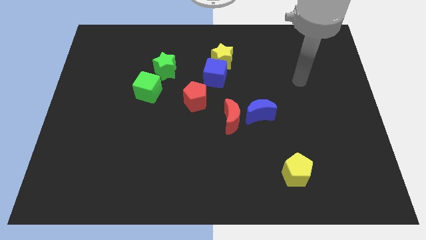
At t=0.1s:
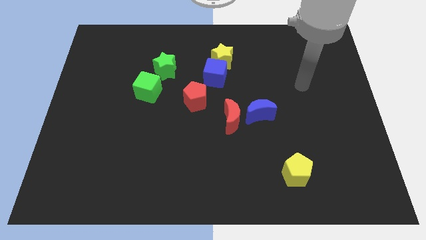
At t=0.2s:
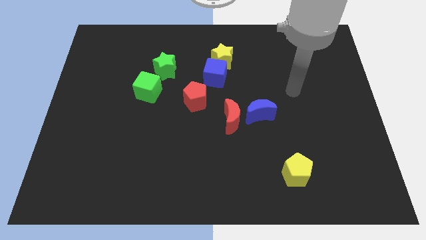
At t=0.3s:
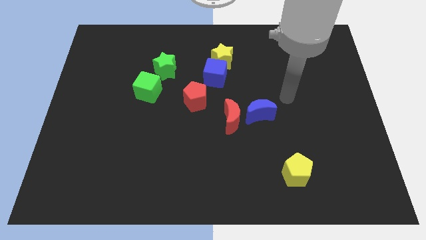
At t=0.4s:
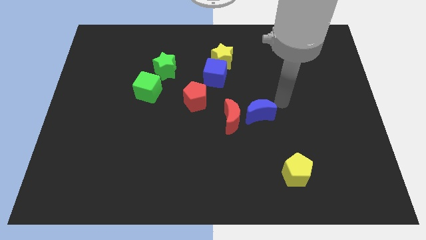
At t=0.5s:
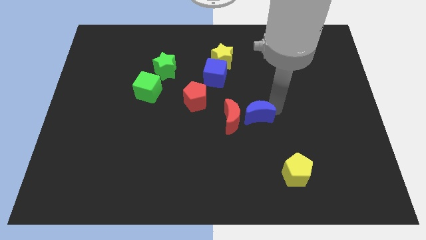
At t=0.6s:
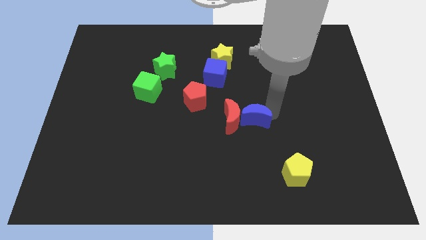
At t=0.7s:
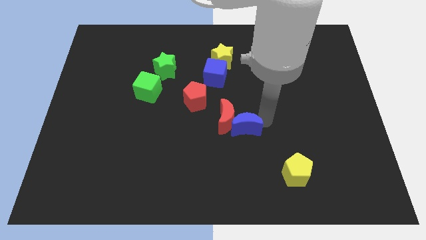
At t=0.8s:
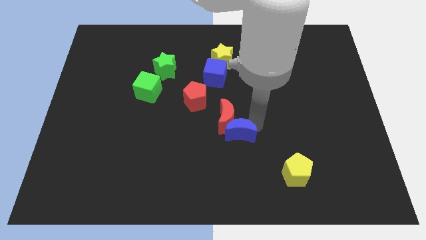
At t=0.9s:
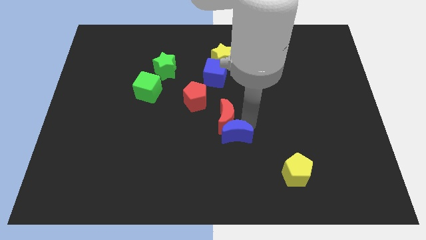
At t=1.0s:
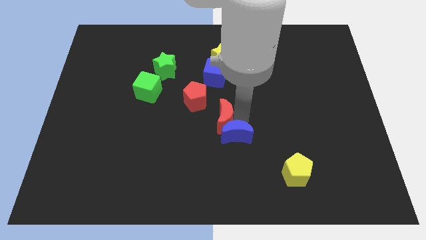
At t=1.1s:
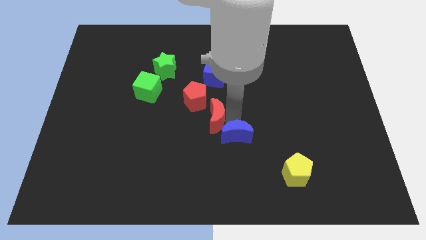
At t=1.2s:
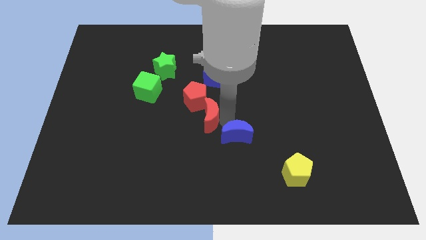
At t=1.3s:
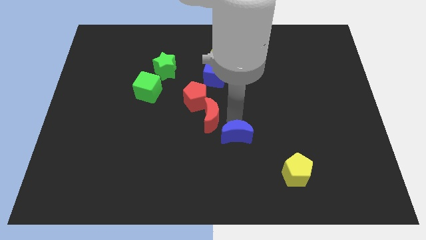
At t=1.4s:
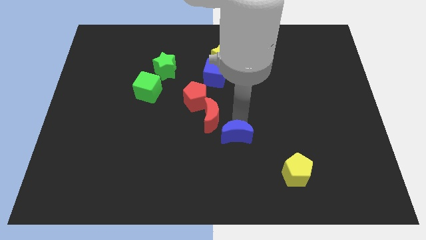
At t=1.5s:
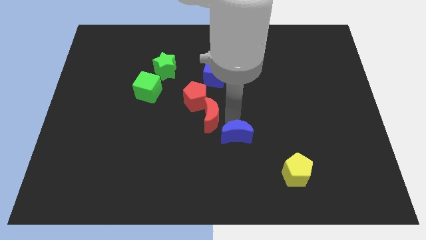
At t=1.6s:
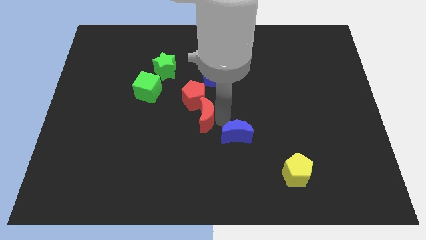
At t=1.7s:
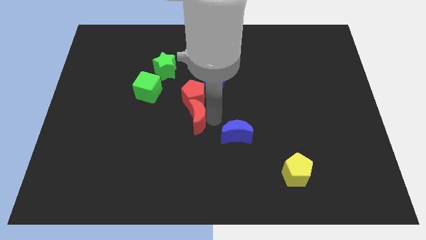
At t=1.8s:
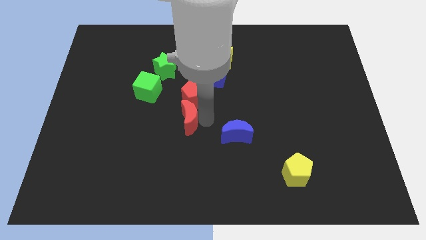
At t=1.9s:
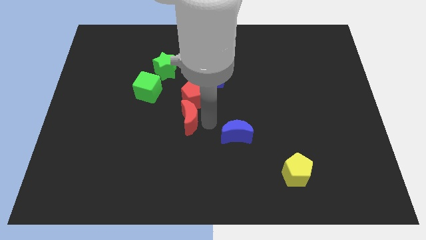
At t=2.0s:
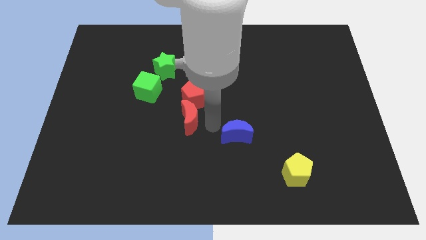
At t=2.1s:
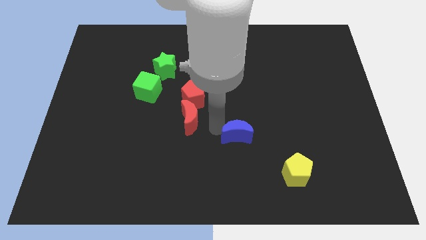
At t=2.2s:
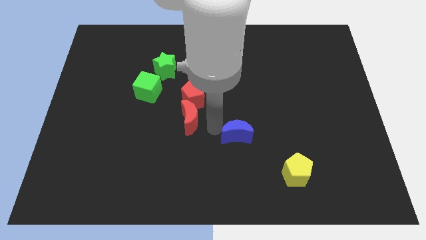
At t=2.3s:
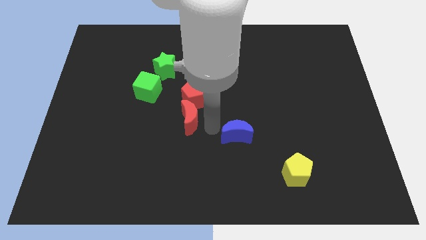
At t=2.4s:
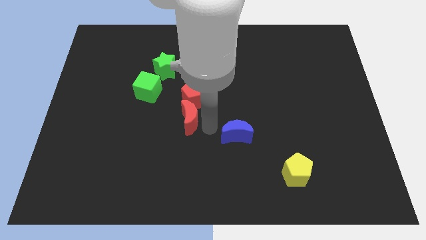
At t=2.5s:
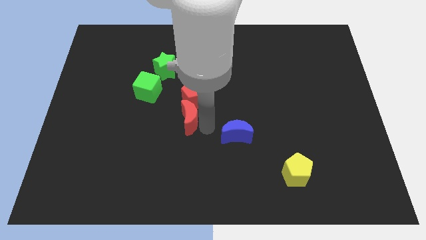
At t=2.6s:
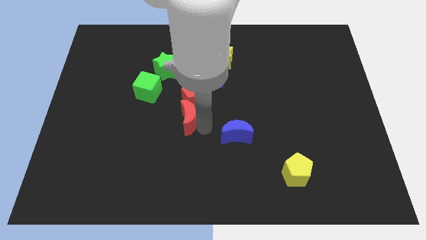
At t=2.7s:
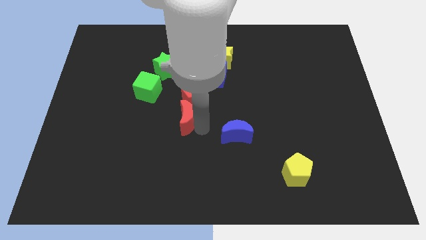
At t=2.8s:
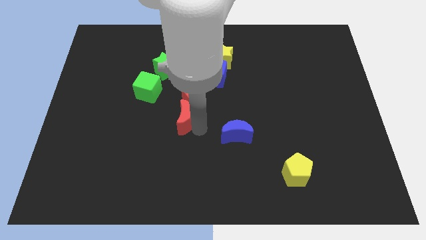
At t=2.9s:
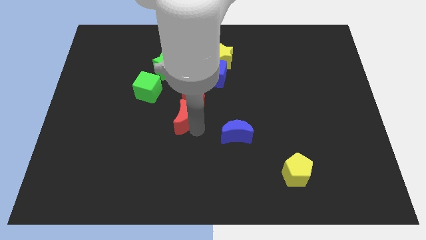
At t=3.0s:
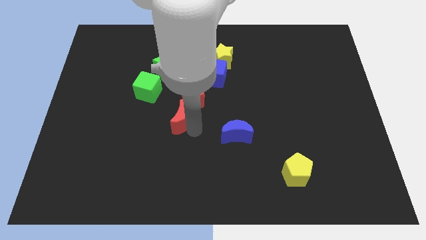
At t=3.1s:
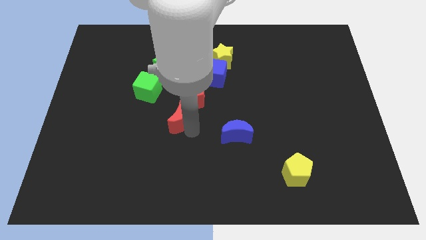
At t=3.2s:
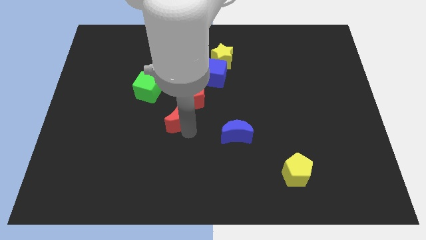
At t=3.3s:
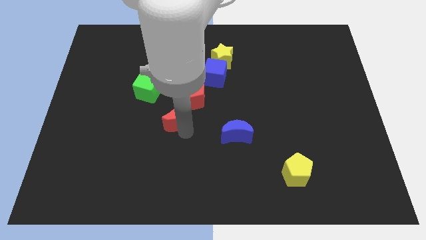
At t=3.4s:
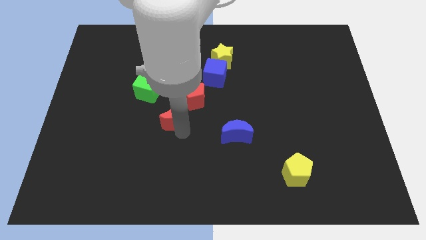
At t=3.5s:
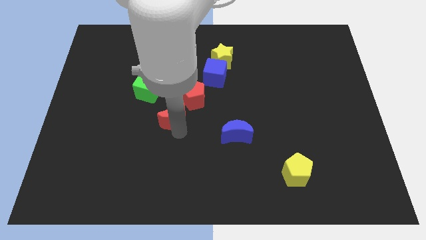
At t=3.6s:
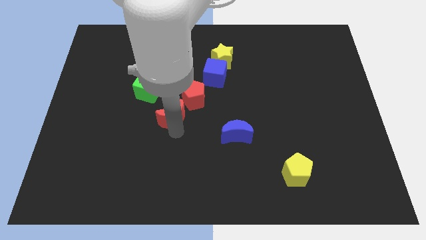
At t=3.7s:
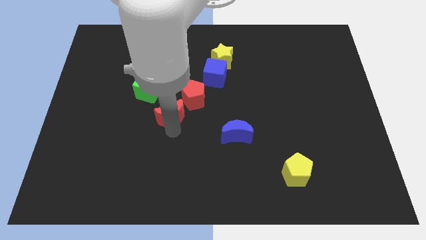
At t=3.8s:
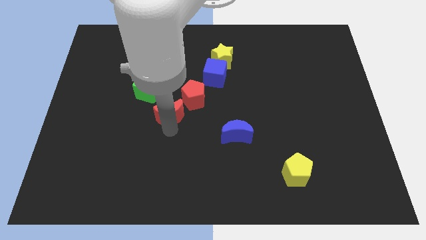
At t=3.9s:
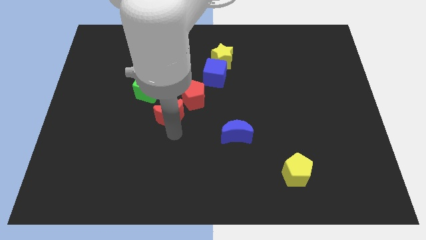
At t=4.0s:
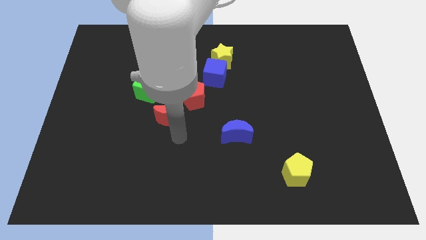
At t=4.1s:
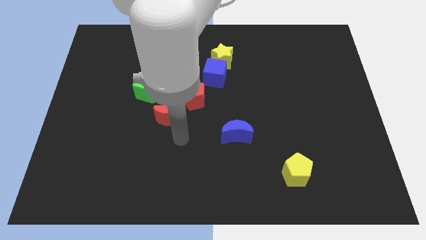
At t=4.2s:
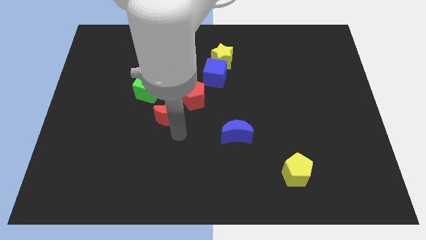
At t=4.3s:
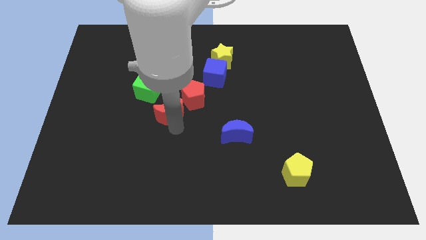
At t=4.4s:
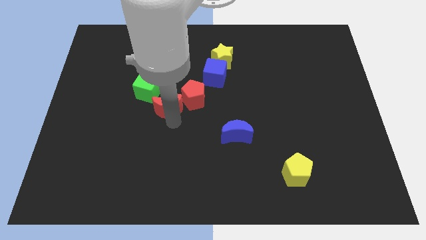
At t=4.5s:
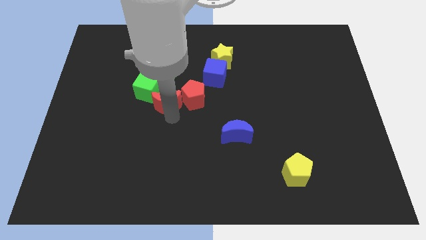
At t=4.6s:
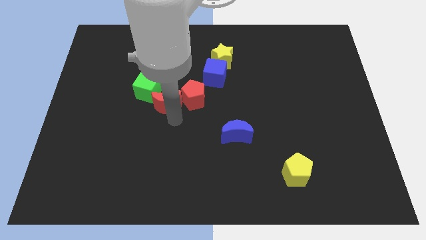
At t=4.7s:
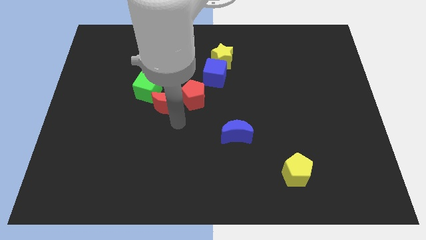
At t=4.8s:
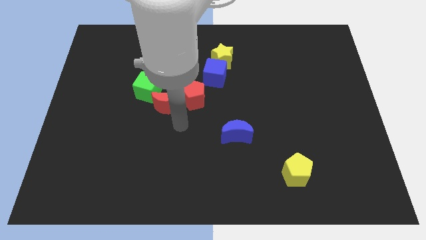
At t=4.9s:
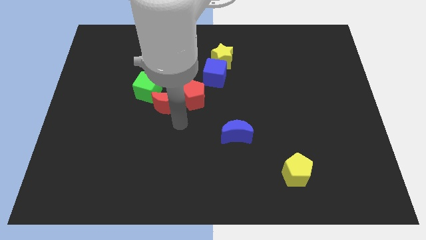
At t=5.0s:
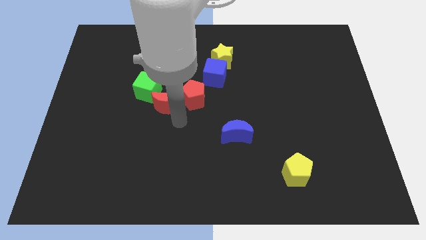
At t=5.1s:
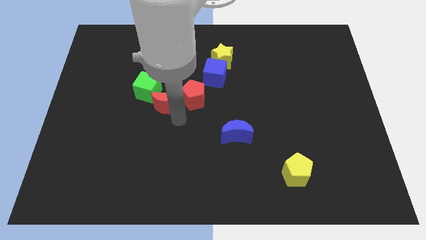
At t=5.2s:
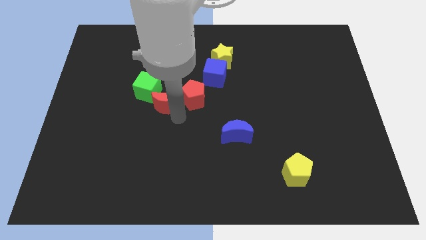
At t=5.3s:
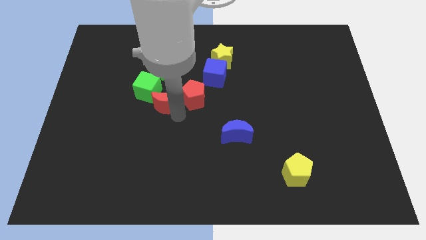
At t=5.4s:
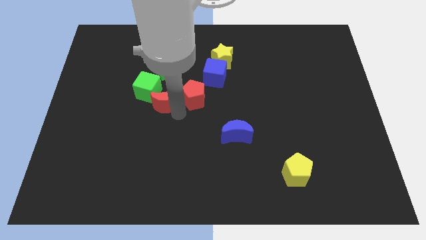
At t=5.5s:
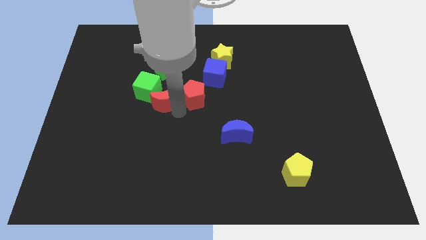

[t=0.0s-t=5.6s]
move the red moon next to the green cube

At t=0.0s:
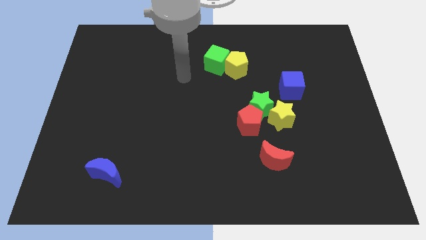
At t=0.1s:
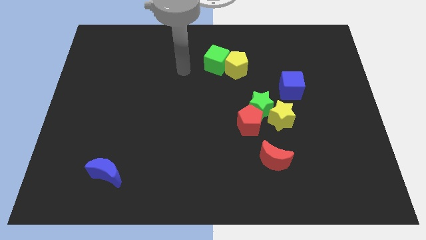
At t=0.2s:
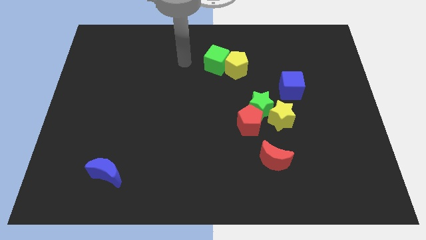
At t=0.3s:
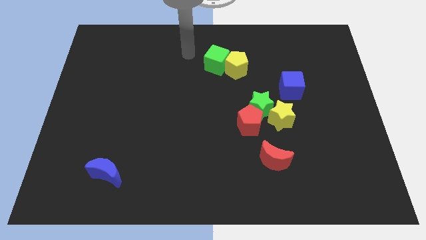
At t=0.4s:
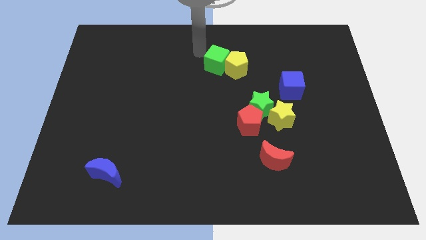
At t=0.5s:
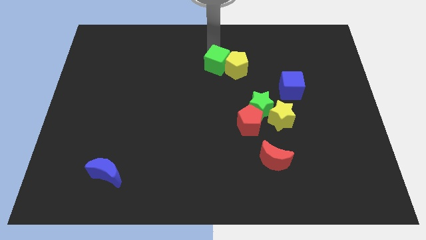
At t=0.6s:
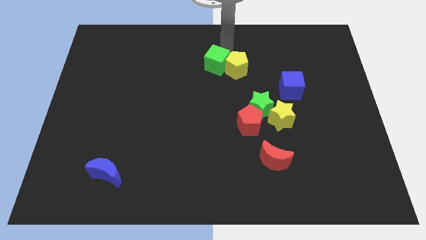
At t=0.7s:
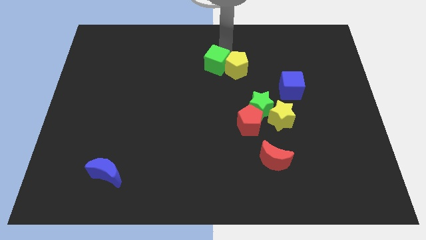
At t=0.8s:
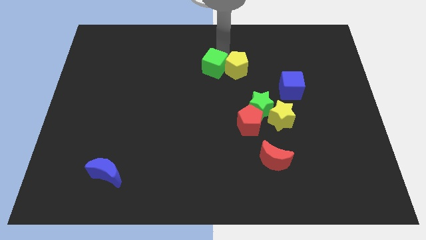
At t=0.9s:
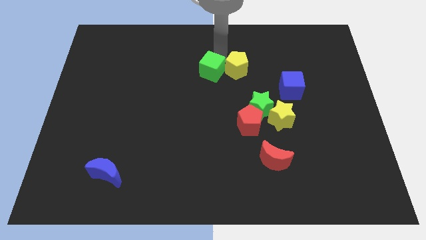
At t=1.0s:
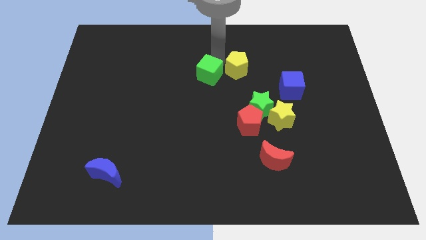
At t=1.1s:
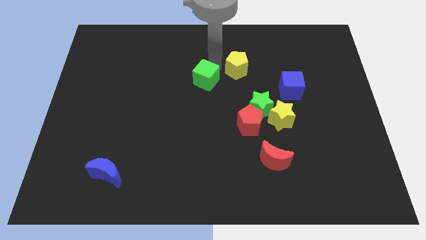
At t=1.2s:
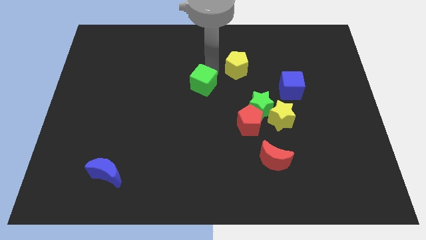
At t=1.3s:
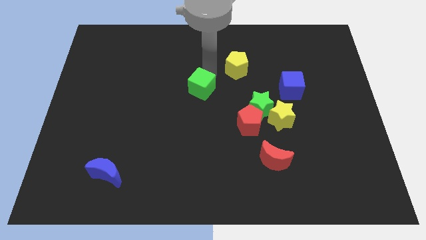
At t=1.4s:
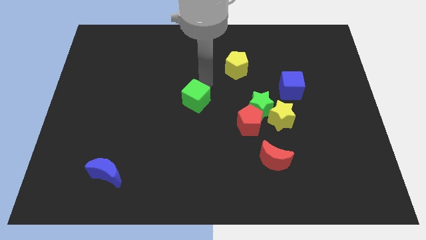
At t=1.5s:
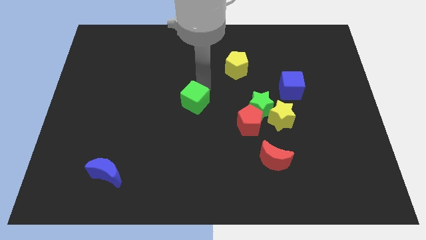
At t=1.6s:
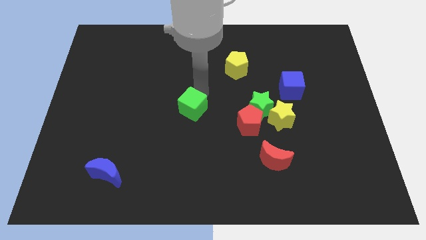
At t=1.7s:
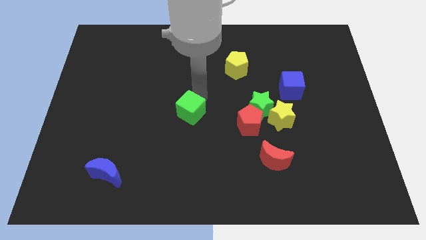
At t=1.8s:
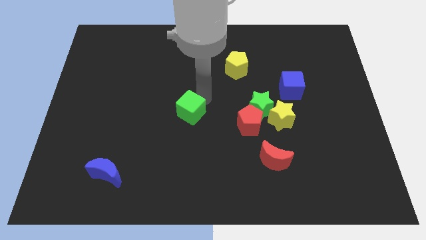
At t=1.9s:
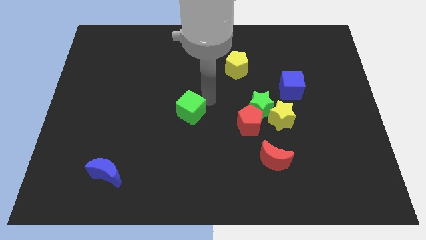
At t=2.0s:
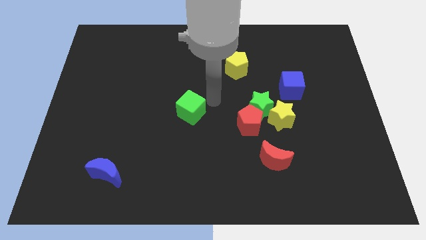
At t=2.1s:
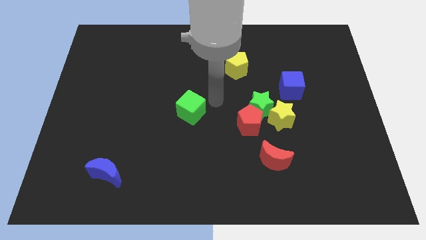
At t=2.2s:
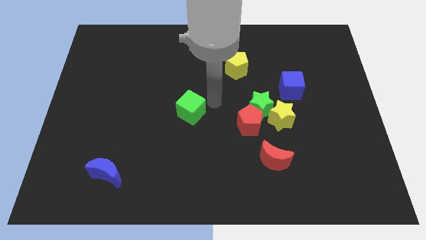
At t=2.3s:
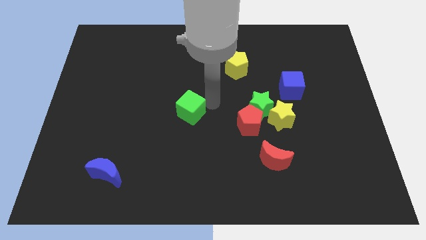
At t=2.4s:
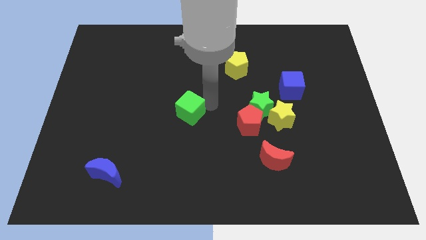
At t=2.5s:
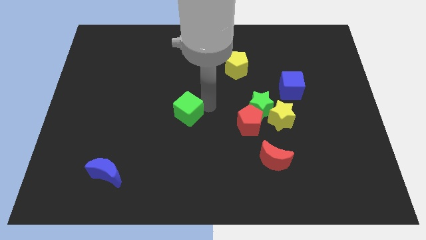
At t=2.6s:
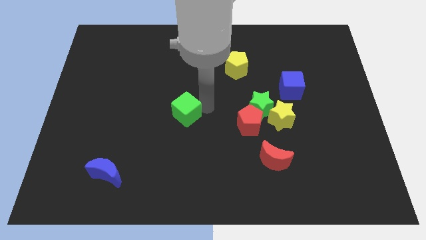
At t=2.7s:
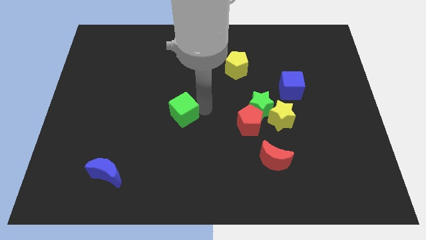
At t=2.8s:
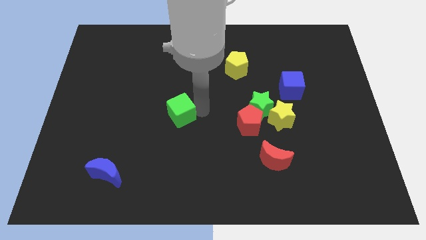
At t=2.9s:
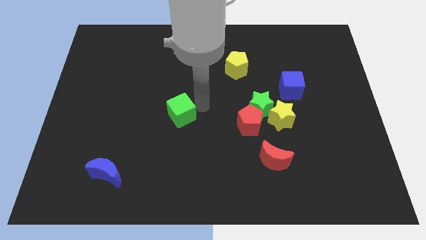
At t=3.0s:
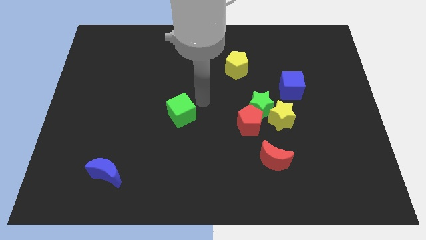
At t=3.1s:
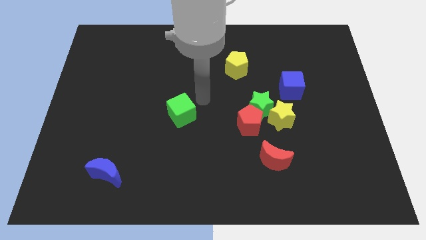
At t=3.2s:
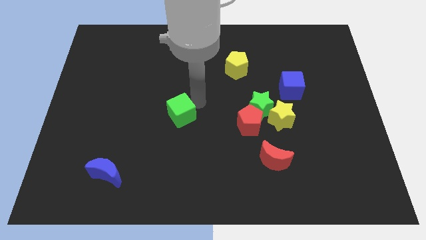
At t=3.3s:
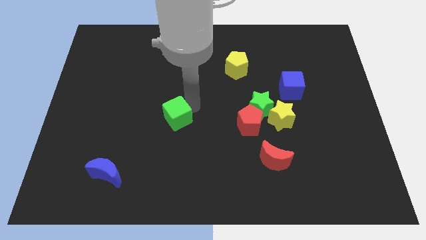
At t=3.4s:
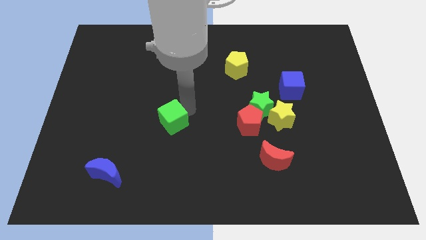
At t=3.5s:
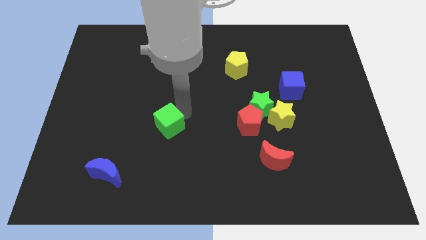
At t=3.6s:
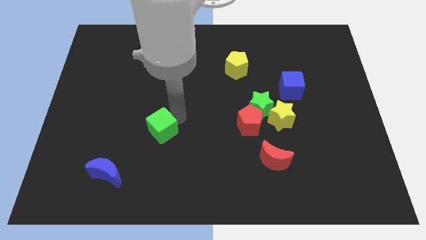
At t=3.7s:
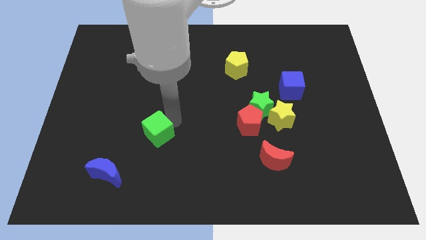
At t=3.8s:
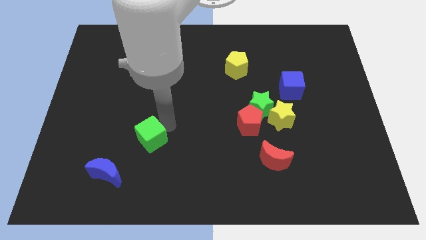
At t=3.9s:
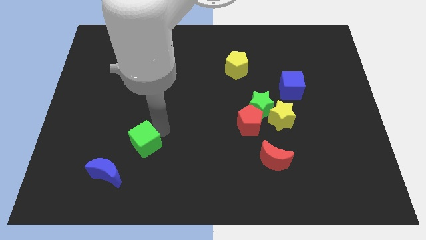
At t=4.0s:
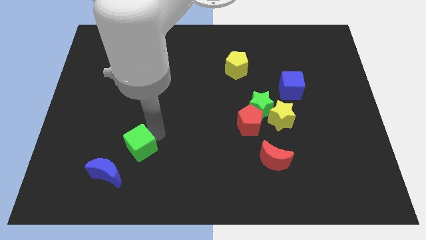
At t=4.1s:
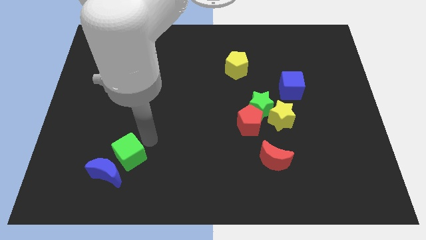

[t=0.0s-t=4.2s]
move the green cube towards the blue moon
